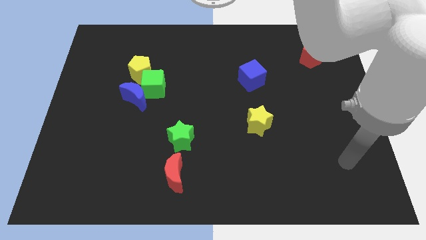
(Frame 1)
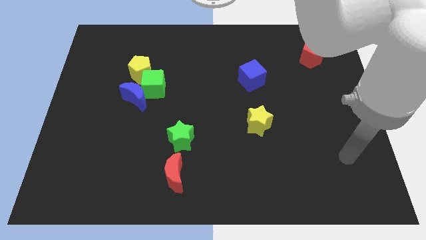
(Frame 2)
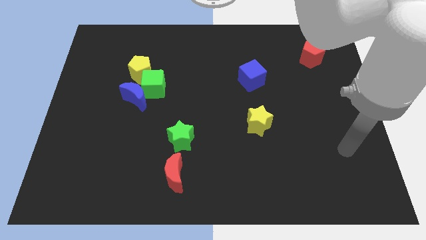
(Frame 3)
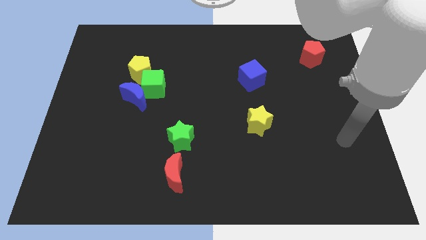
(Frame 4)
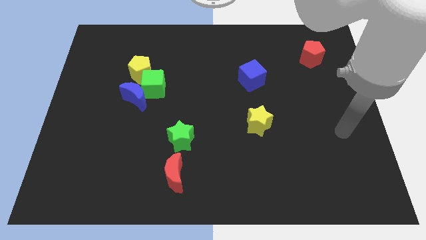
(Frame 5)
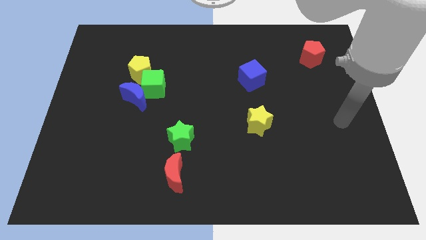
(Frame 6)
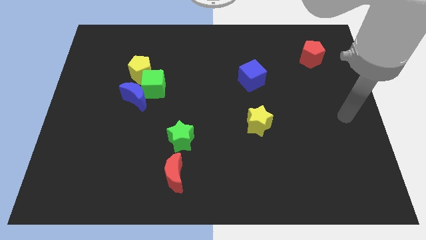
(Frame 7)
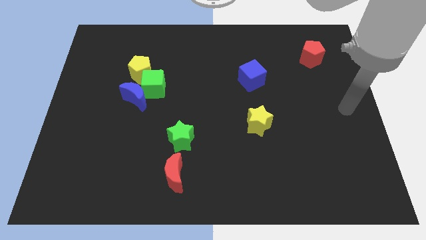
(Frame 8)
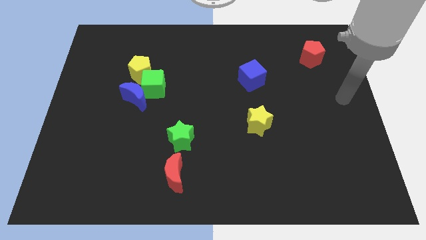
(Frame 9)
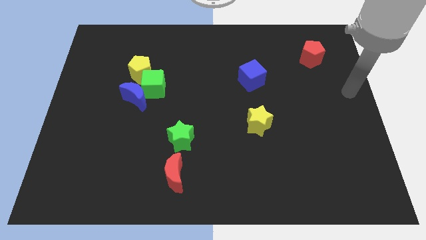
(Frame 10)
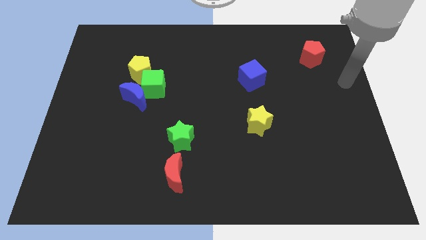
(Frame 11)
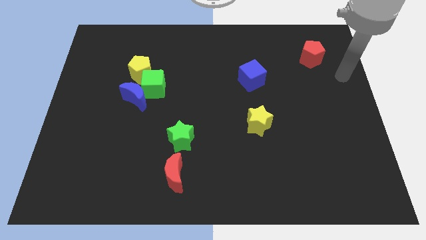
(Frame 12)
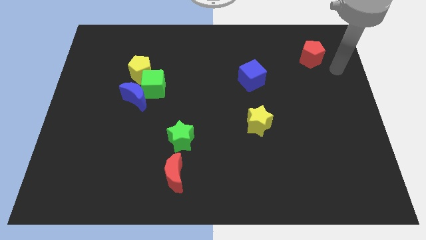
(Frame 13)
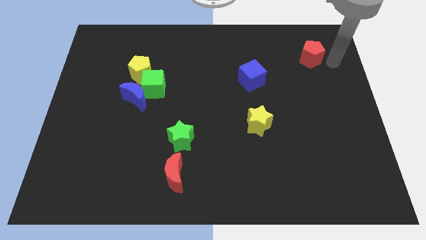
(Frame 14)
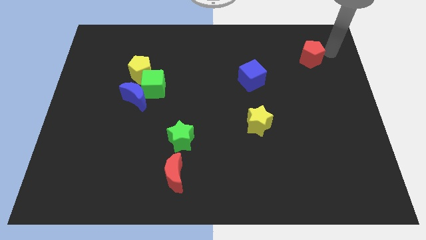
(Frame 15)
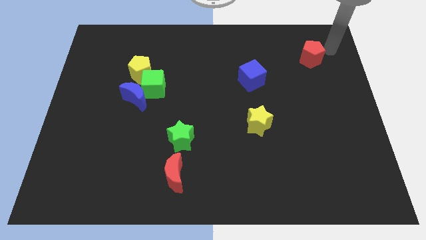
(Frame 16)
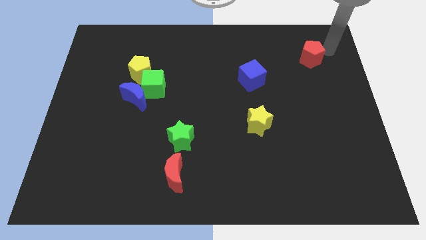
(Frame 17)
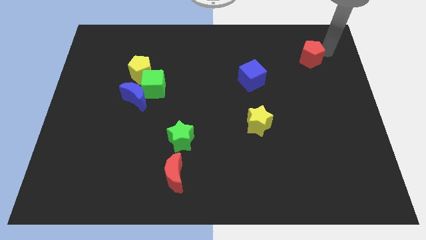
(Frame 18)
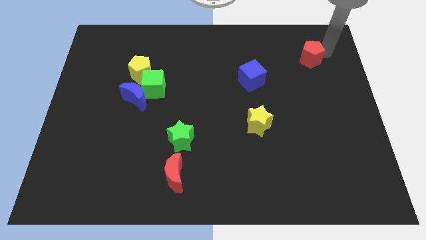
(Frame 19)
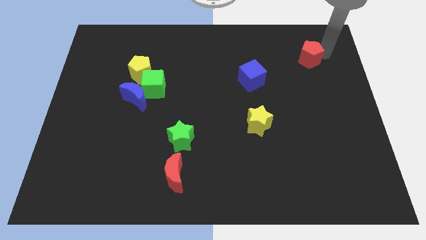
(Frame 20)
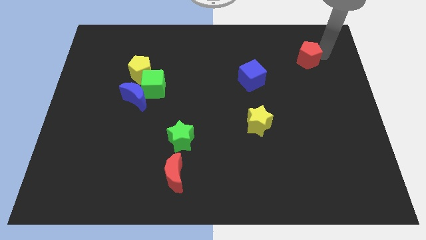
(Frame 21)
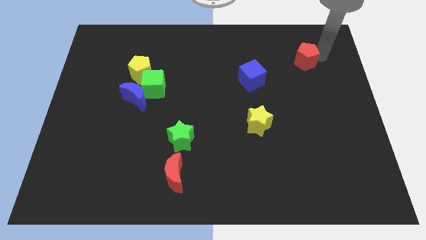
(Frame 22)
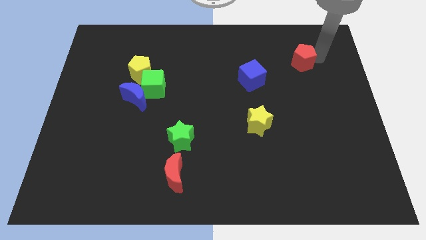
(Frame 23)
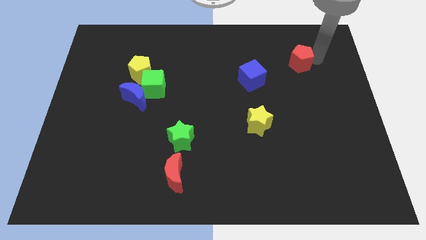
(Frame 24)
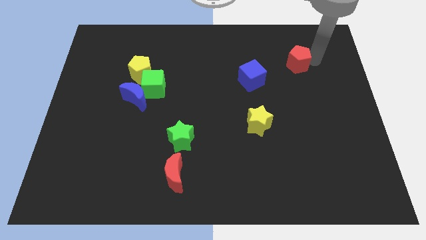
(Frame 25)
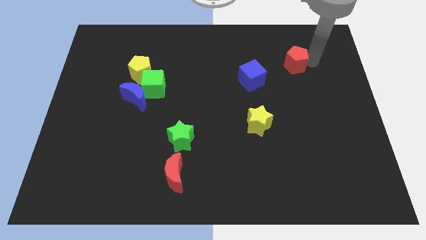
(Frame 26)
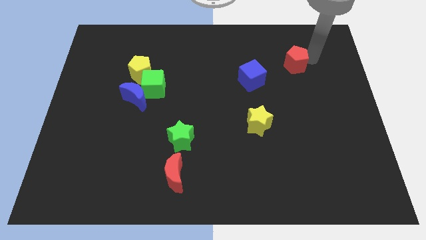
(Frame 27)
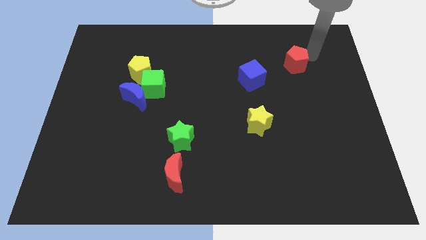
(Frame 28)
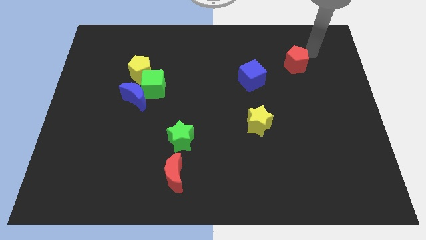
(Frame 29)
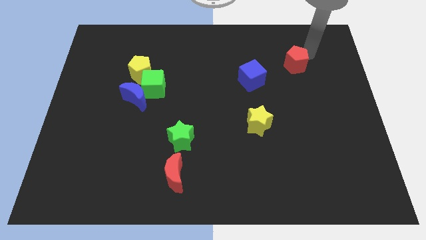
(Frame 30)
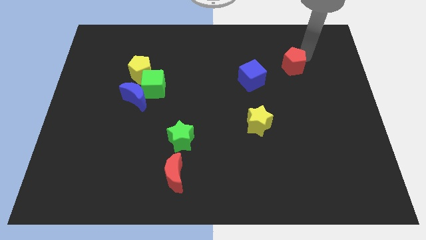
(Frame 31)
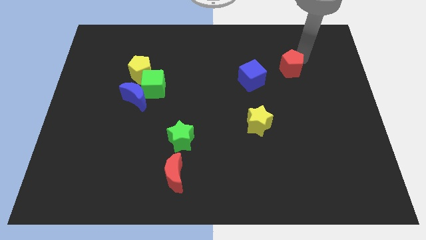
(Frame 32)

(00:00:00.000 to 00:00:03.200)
push the red pentagon somewhat down and to the left

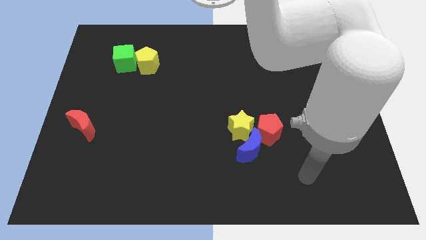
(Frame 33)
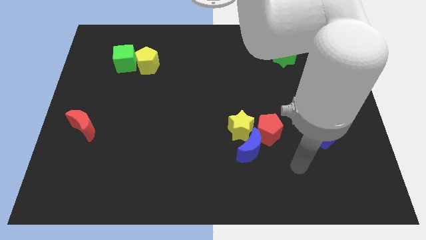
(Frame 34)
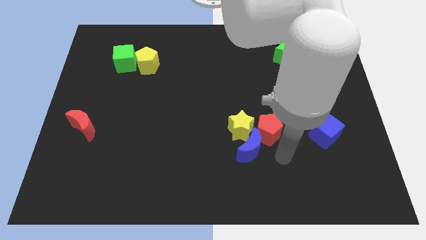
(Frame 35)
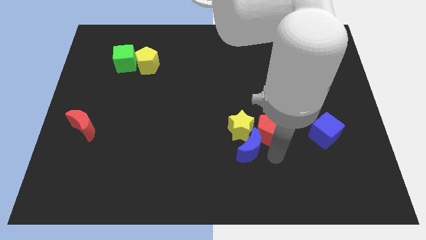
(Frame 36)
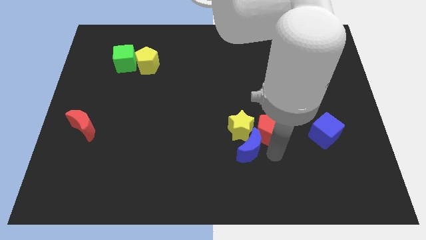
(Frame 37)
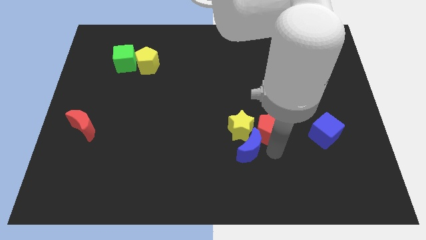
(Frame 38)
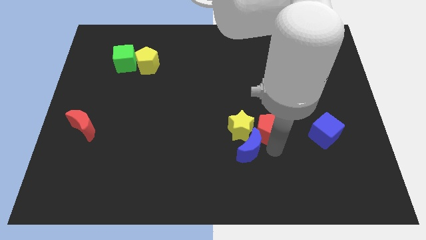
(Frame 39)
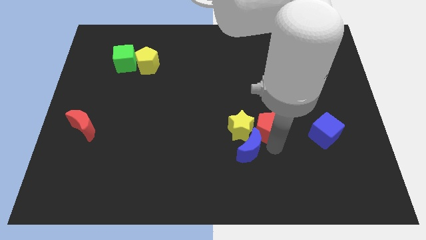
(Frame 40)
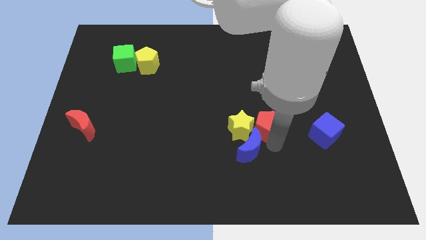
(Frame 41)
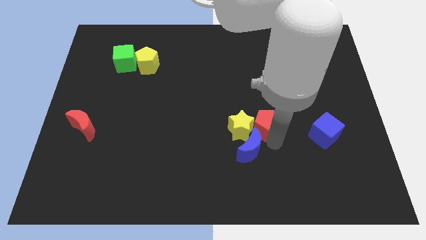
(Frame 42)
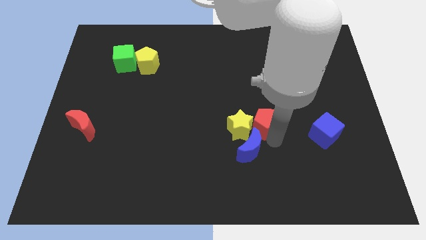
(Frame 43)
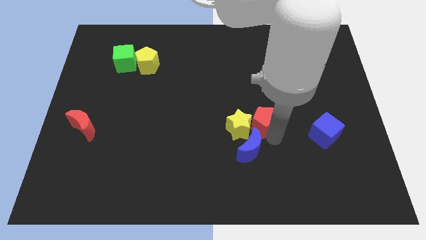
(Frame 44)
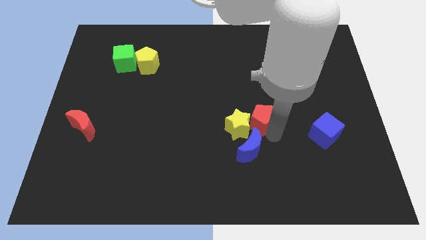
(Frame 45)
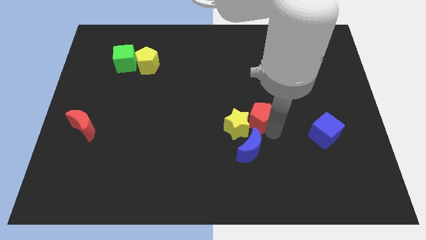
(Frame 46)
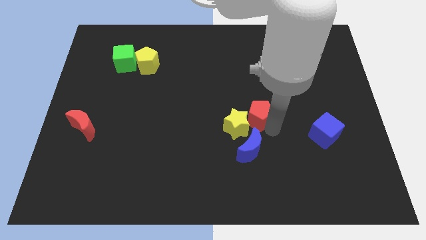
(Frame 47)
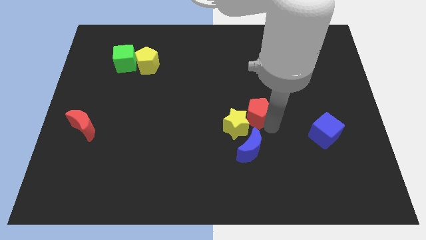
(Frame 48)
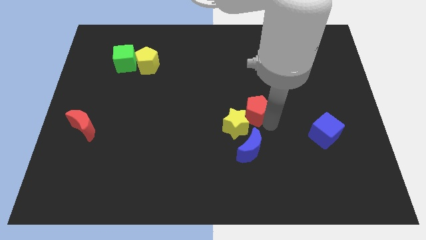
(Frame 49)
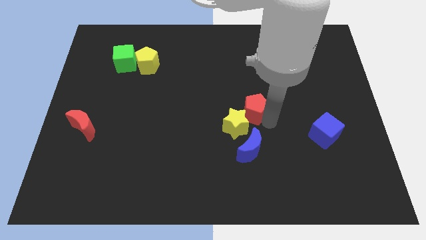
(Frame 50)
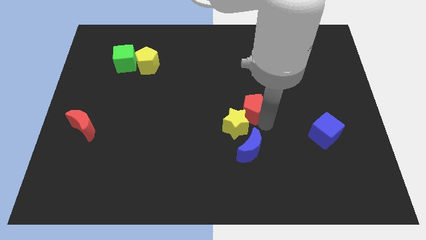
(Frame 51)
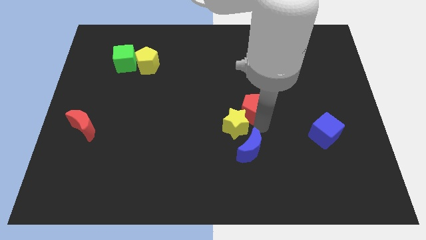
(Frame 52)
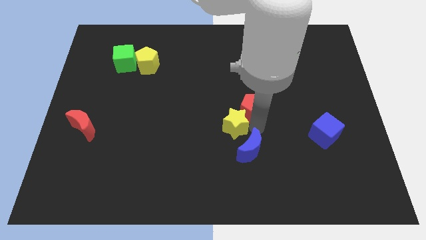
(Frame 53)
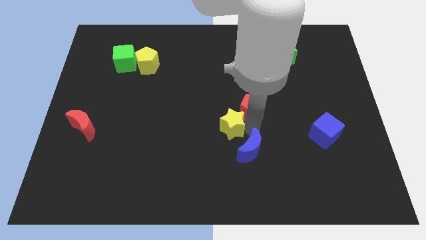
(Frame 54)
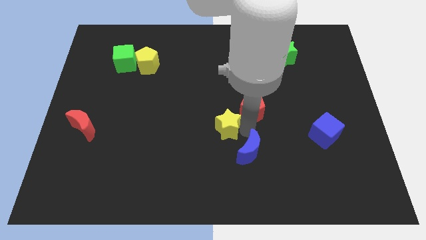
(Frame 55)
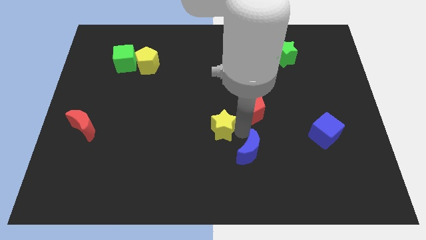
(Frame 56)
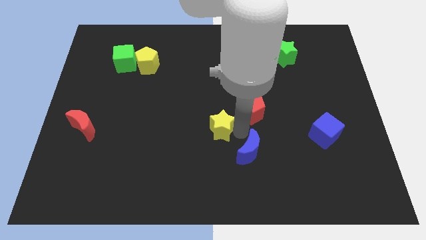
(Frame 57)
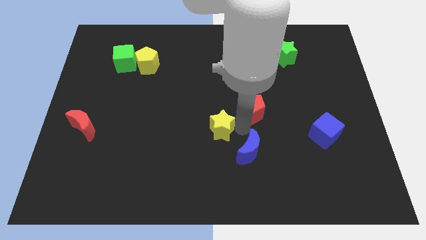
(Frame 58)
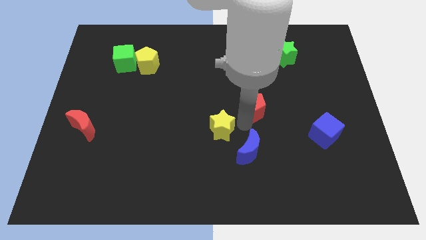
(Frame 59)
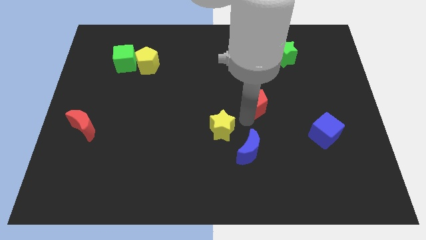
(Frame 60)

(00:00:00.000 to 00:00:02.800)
move the red pentagon upwards somewhat

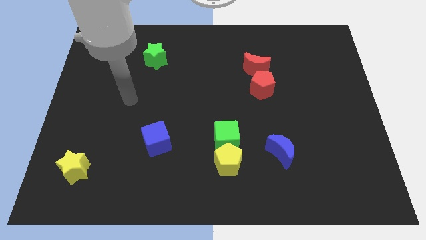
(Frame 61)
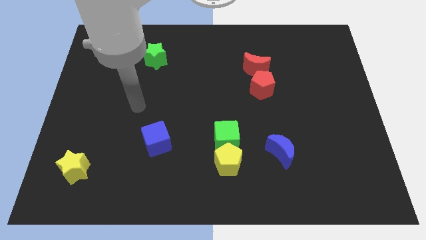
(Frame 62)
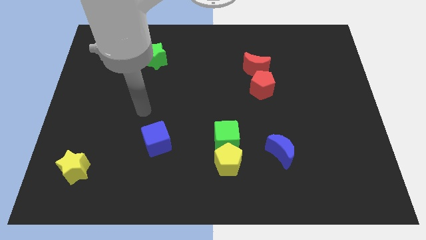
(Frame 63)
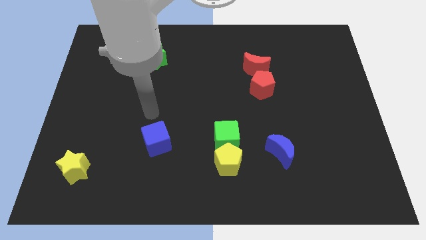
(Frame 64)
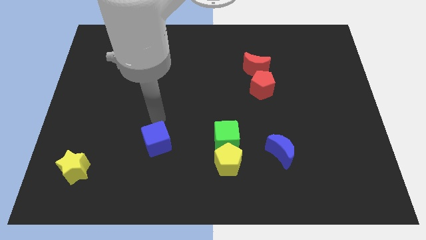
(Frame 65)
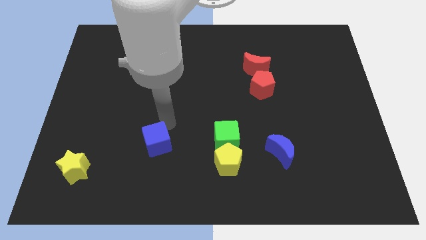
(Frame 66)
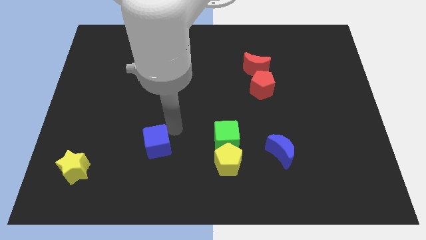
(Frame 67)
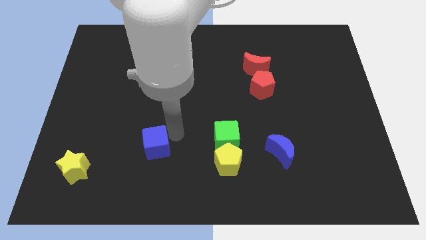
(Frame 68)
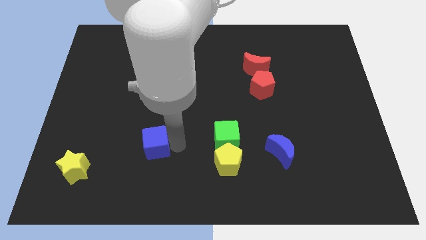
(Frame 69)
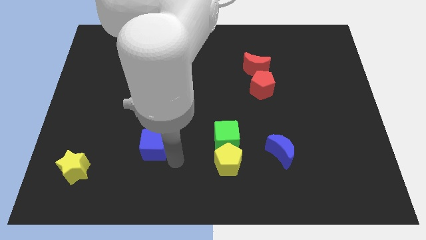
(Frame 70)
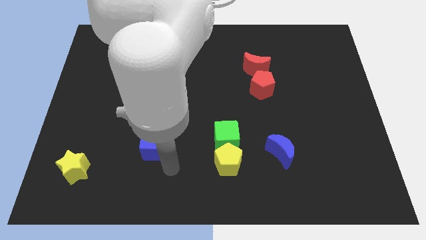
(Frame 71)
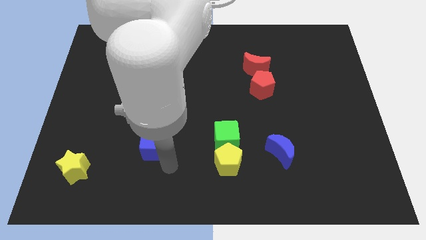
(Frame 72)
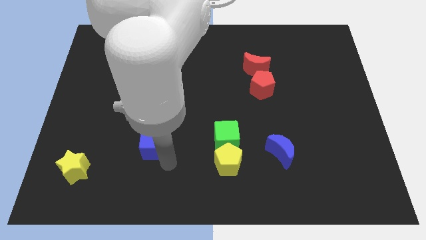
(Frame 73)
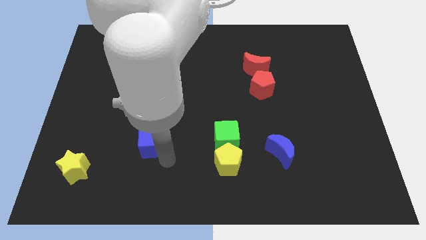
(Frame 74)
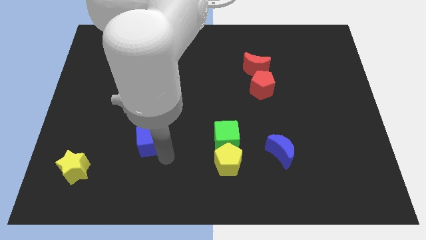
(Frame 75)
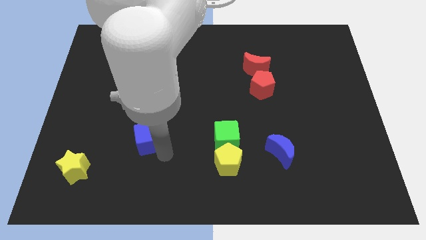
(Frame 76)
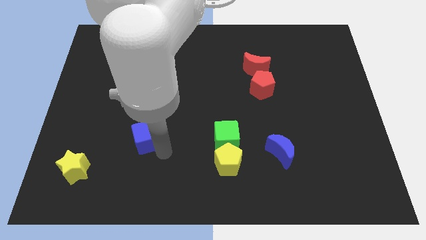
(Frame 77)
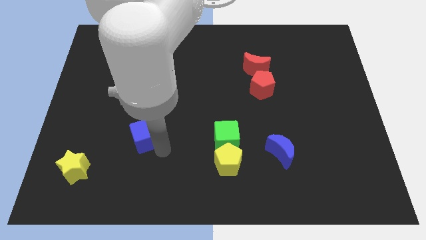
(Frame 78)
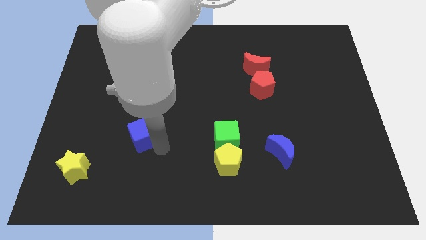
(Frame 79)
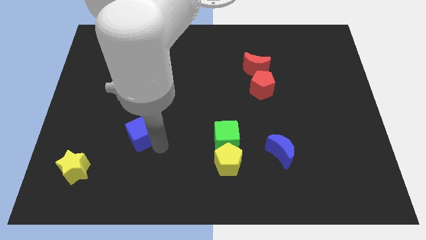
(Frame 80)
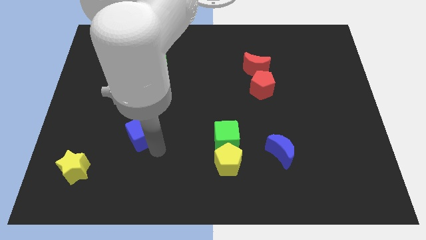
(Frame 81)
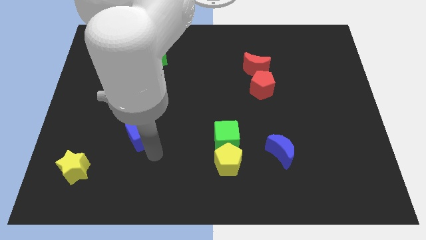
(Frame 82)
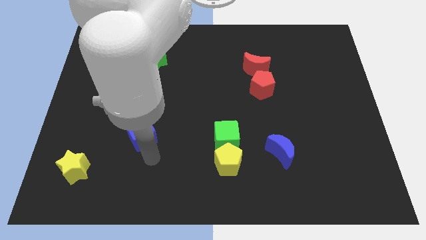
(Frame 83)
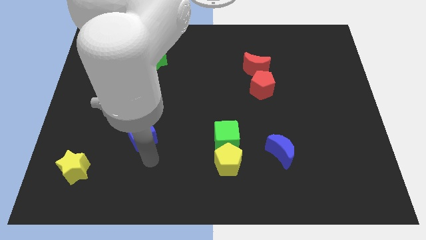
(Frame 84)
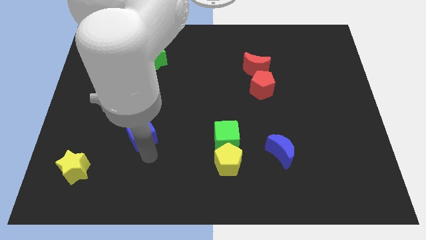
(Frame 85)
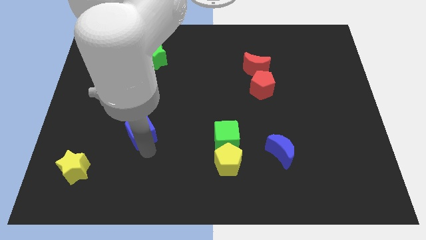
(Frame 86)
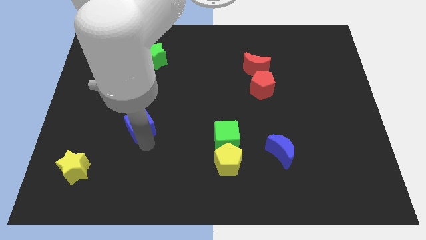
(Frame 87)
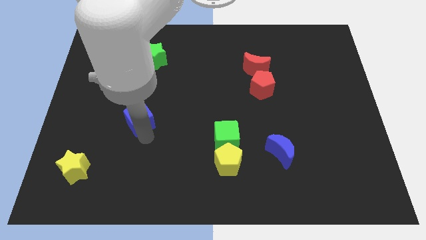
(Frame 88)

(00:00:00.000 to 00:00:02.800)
slightly slide the blue cube up and left
